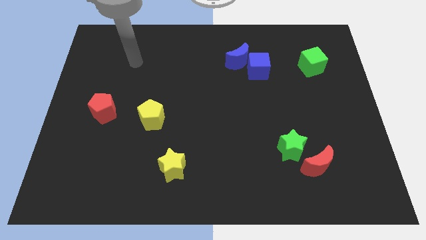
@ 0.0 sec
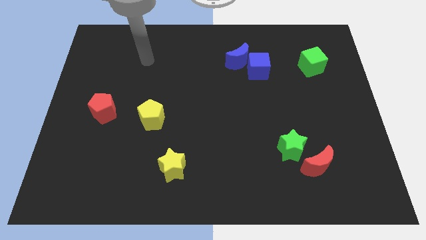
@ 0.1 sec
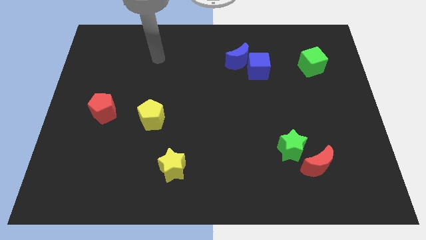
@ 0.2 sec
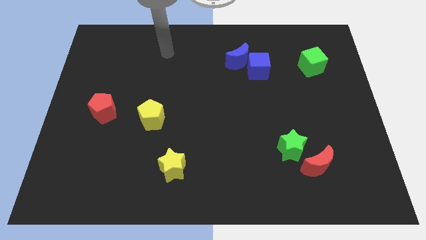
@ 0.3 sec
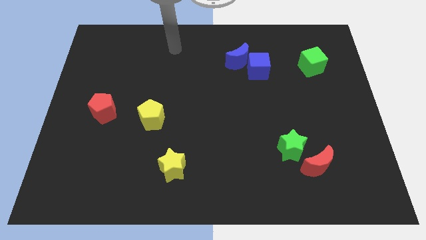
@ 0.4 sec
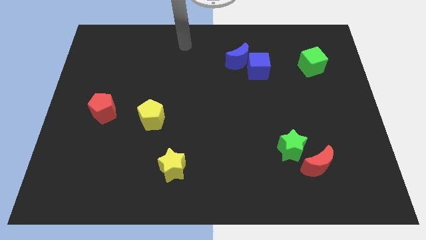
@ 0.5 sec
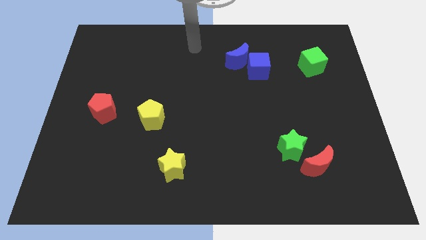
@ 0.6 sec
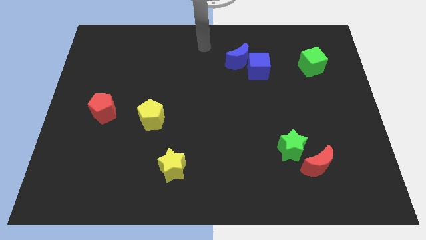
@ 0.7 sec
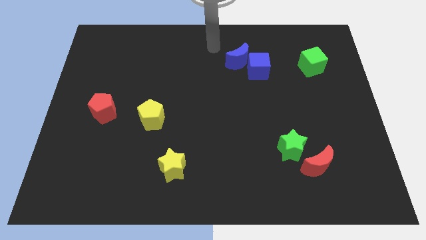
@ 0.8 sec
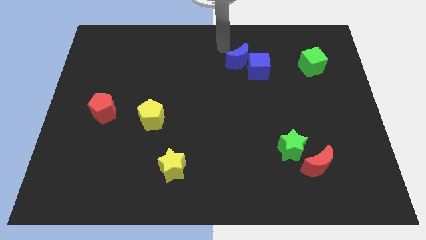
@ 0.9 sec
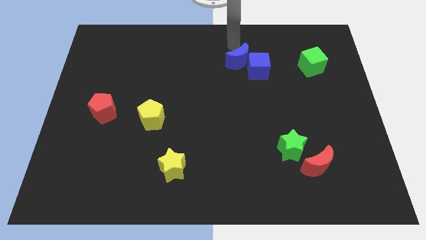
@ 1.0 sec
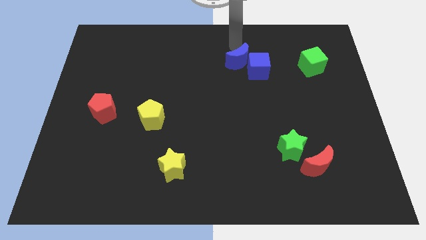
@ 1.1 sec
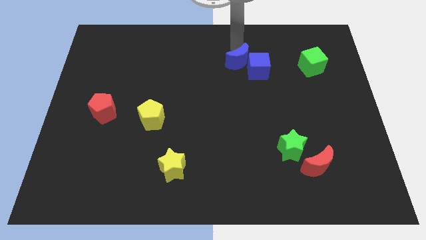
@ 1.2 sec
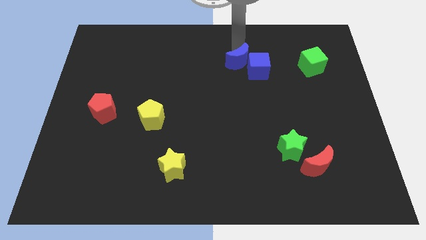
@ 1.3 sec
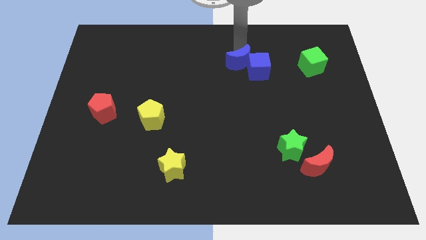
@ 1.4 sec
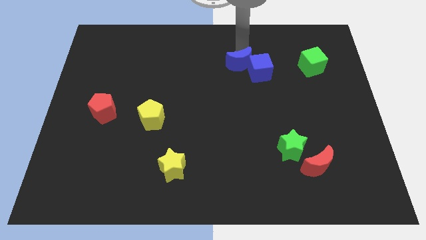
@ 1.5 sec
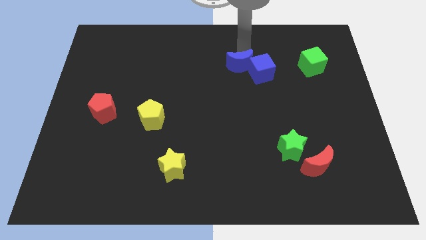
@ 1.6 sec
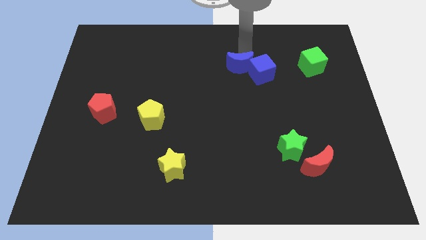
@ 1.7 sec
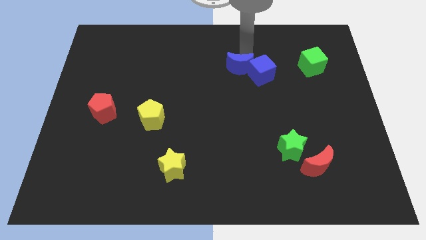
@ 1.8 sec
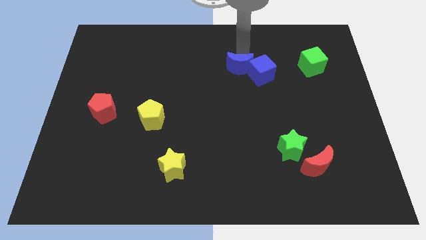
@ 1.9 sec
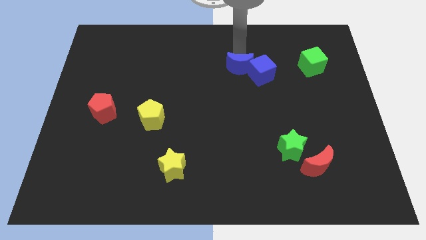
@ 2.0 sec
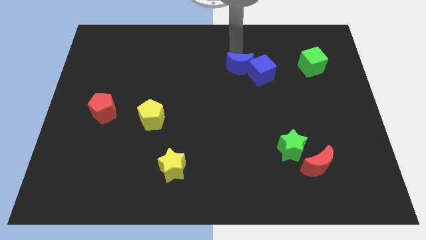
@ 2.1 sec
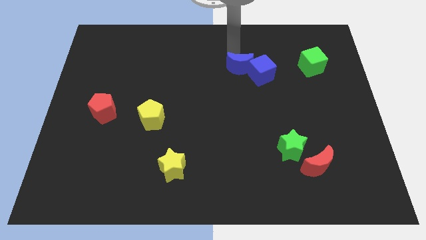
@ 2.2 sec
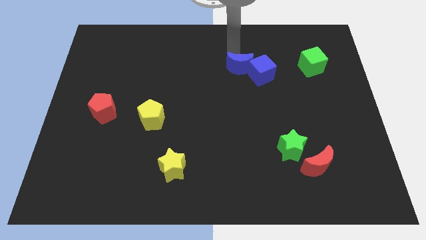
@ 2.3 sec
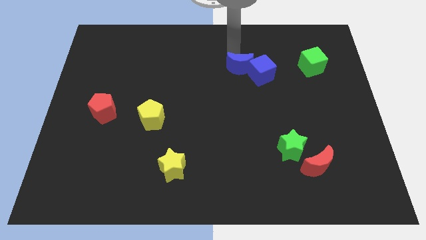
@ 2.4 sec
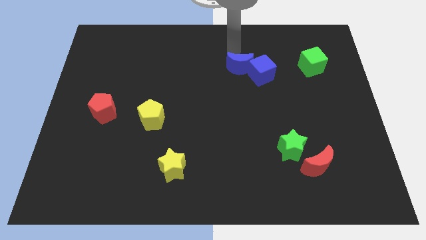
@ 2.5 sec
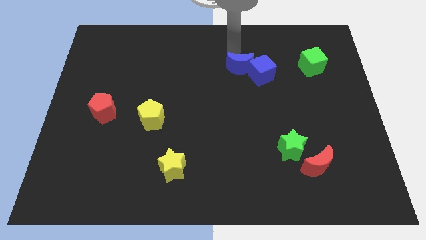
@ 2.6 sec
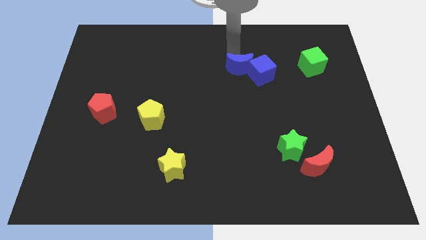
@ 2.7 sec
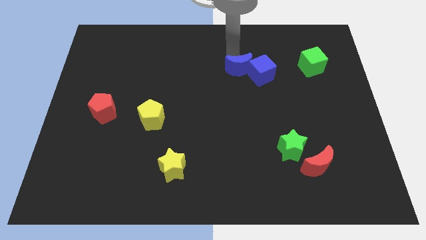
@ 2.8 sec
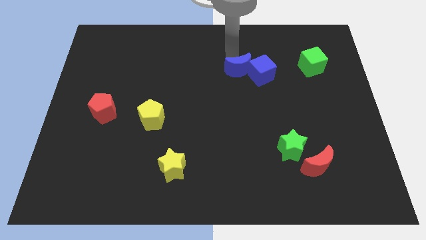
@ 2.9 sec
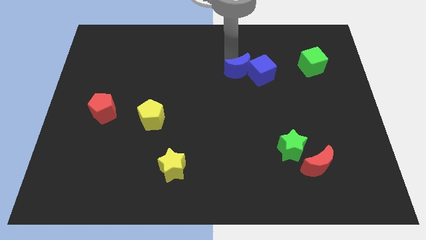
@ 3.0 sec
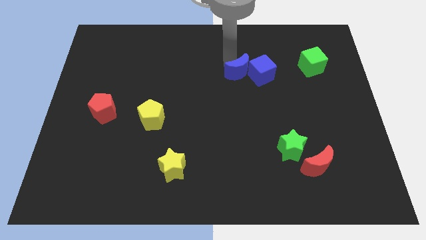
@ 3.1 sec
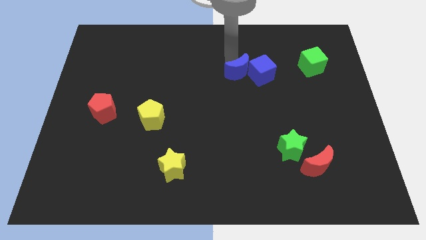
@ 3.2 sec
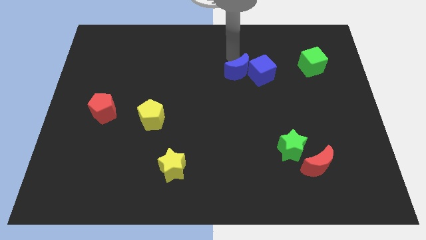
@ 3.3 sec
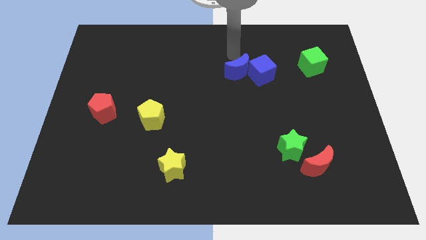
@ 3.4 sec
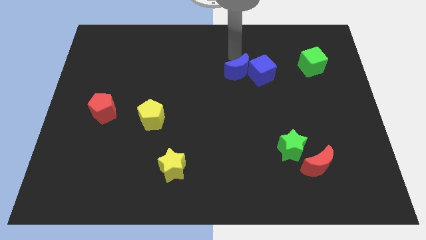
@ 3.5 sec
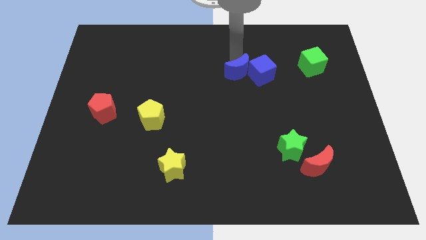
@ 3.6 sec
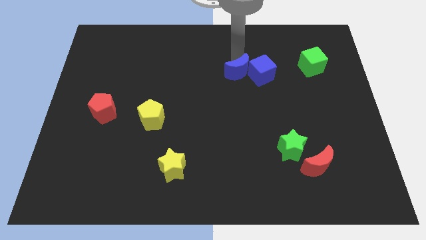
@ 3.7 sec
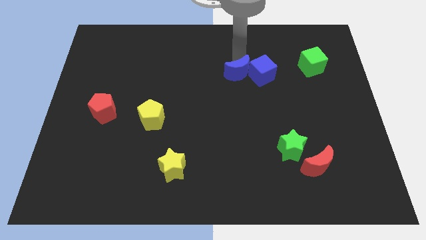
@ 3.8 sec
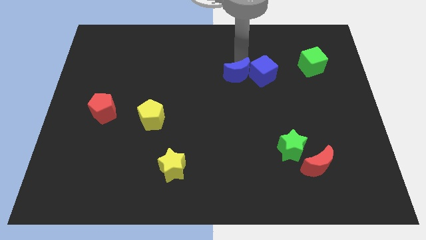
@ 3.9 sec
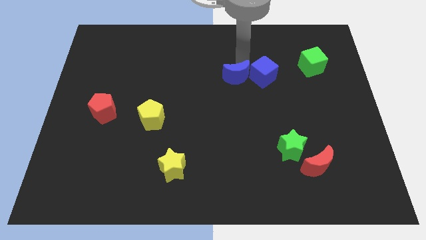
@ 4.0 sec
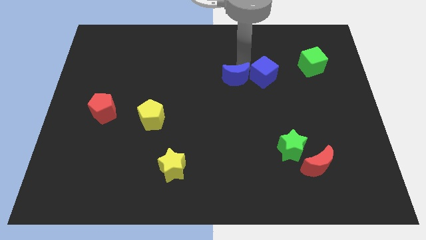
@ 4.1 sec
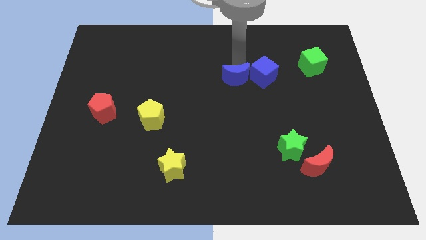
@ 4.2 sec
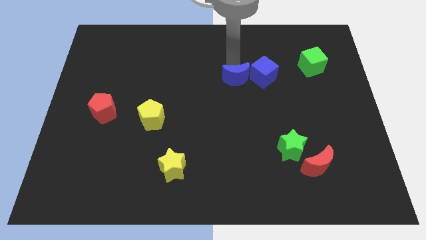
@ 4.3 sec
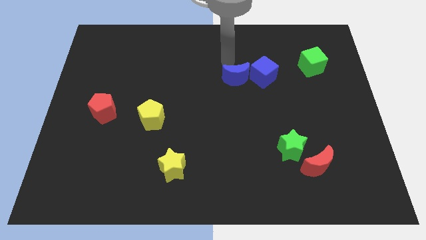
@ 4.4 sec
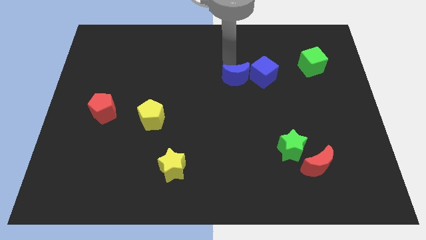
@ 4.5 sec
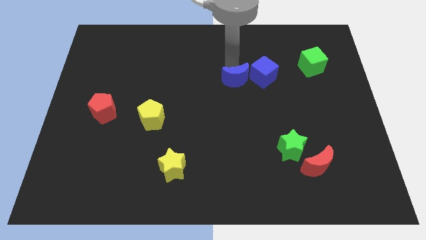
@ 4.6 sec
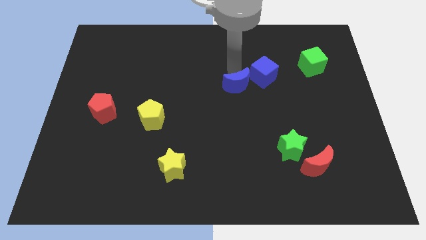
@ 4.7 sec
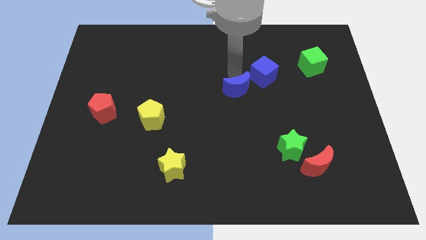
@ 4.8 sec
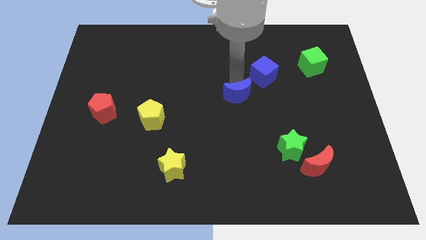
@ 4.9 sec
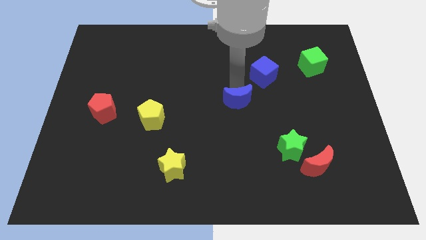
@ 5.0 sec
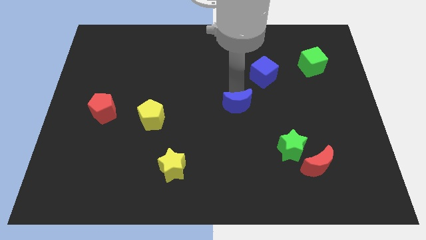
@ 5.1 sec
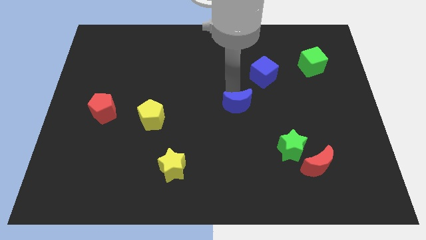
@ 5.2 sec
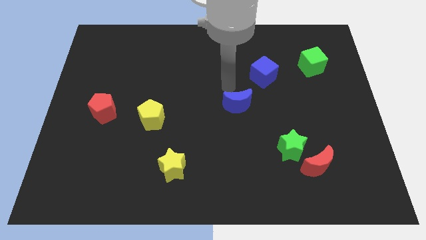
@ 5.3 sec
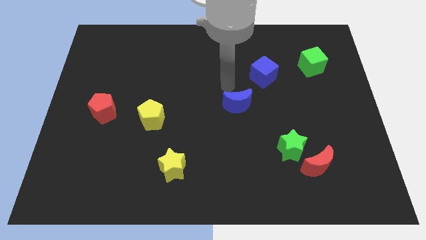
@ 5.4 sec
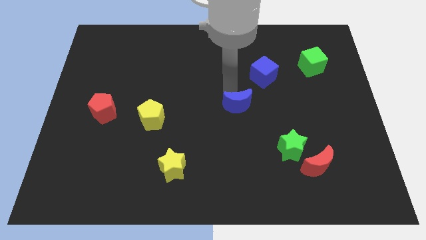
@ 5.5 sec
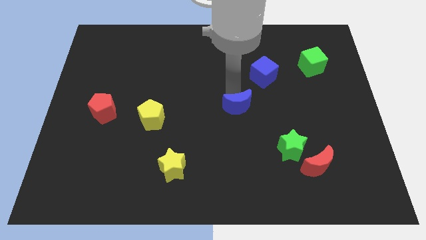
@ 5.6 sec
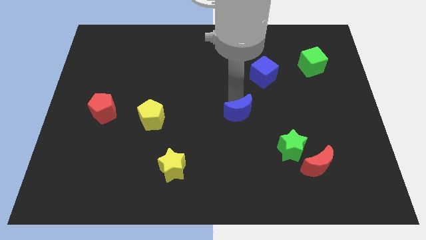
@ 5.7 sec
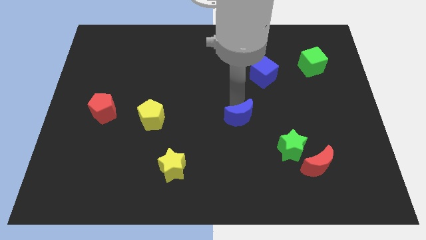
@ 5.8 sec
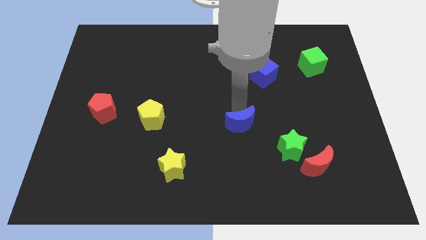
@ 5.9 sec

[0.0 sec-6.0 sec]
slide the blue moon down

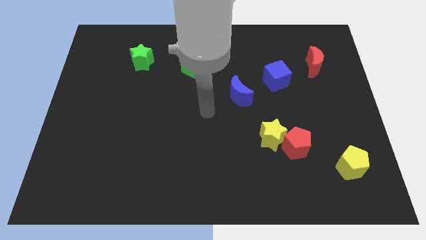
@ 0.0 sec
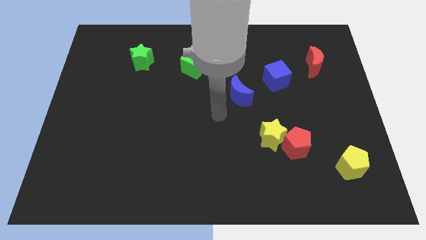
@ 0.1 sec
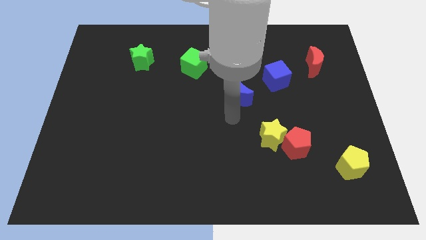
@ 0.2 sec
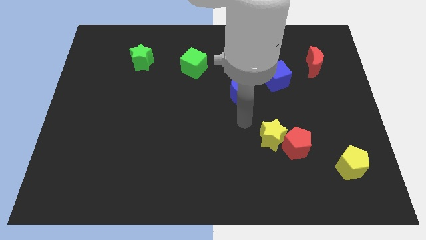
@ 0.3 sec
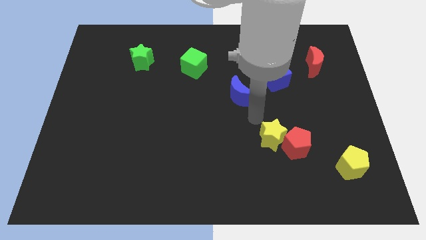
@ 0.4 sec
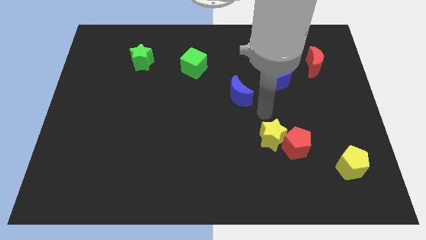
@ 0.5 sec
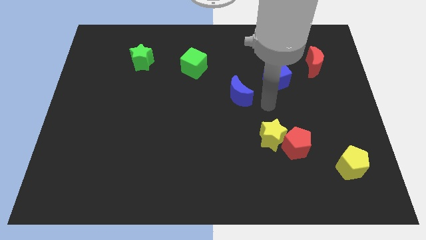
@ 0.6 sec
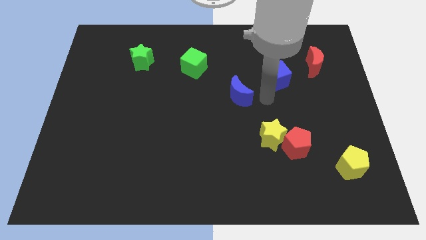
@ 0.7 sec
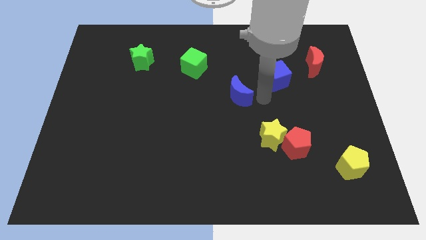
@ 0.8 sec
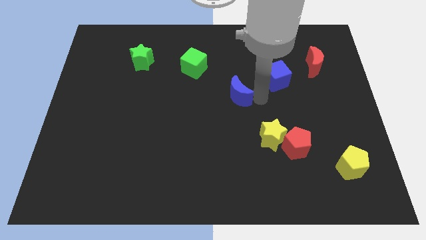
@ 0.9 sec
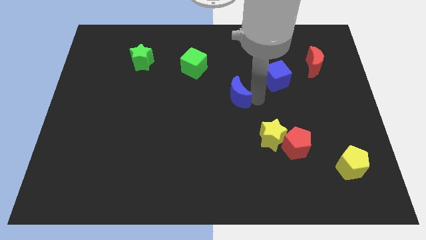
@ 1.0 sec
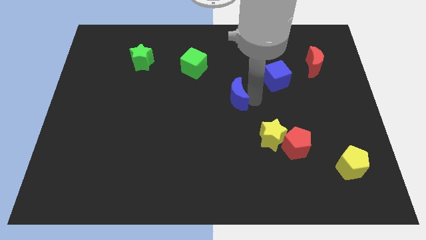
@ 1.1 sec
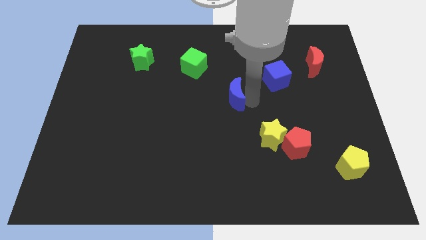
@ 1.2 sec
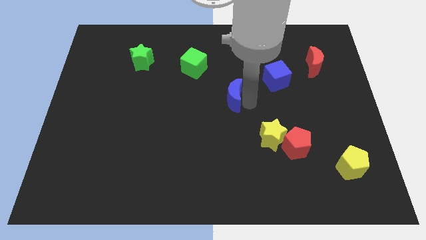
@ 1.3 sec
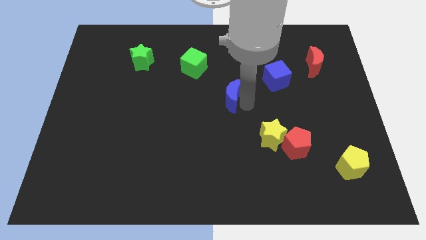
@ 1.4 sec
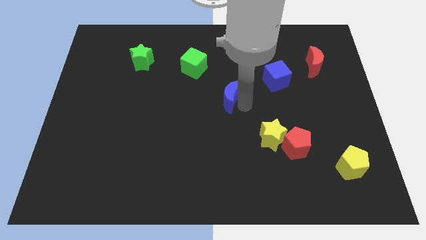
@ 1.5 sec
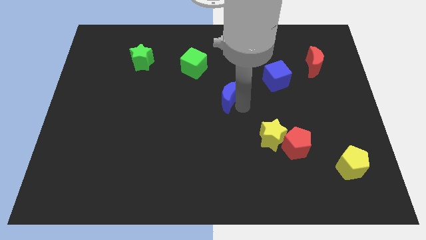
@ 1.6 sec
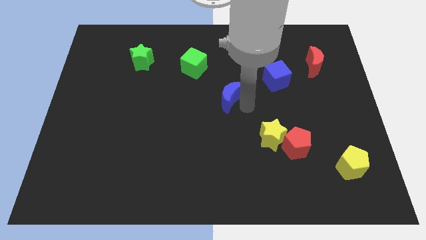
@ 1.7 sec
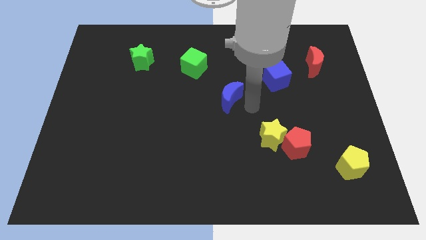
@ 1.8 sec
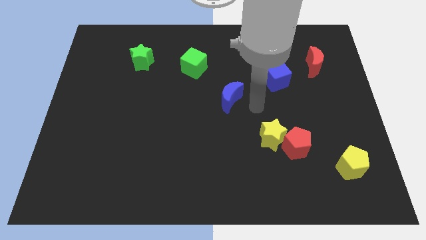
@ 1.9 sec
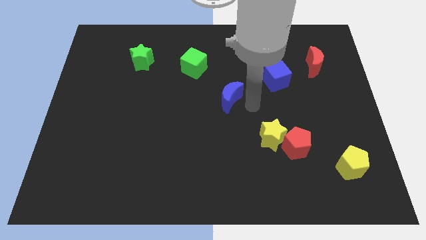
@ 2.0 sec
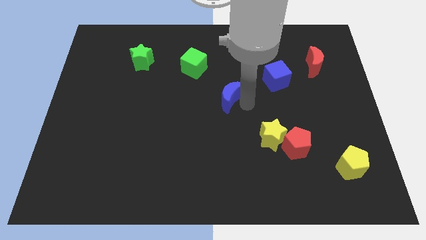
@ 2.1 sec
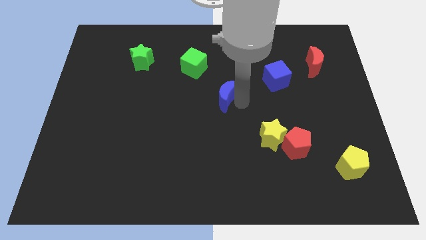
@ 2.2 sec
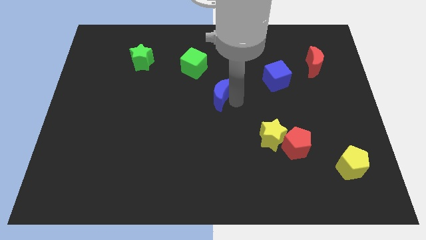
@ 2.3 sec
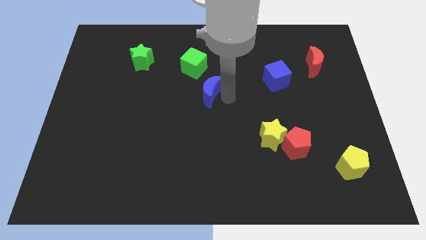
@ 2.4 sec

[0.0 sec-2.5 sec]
slightly slide the blue moon left
